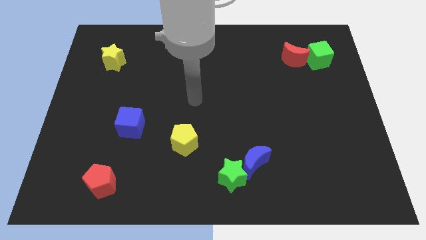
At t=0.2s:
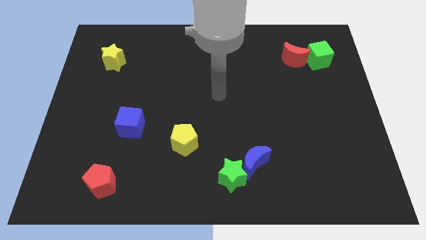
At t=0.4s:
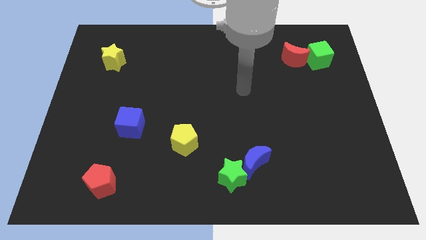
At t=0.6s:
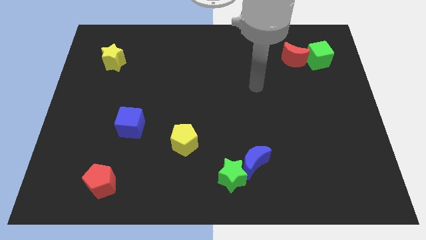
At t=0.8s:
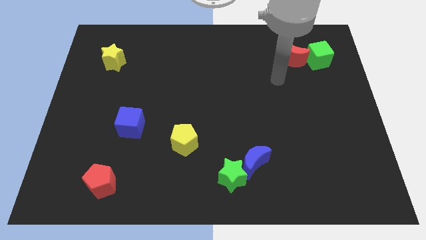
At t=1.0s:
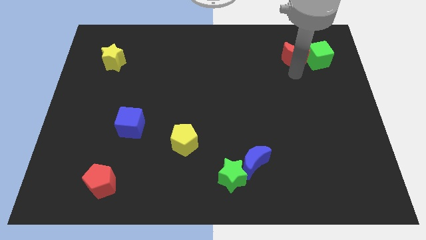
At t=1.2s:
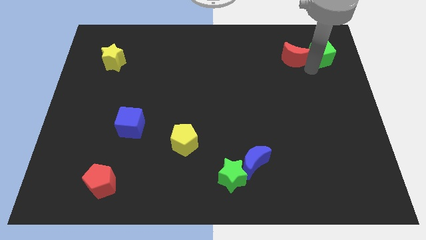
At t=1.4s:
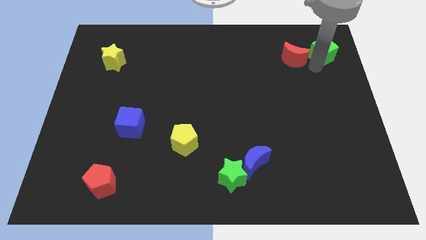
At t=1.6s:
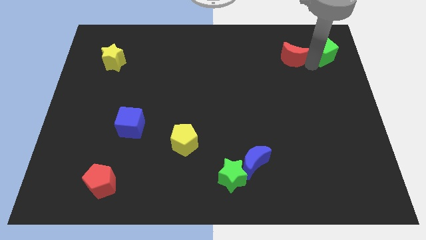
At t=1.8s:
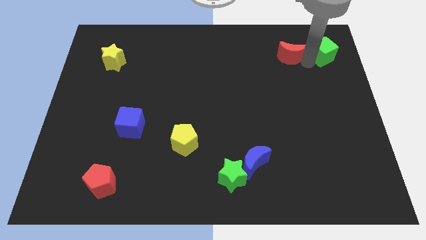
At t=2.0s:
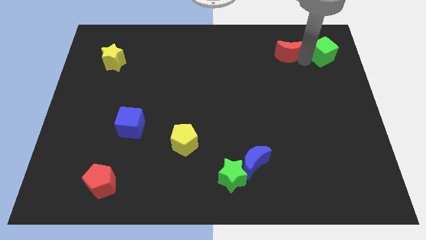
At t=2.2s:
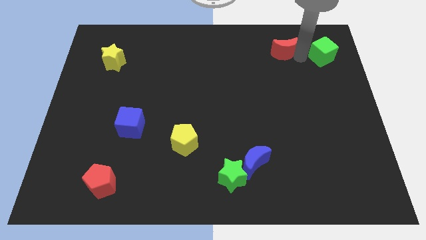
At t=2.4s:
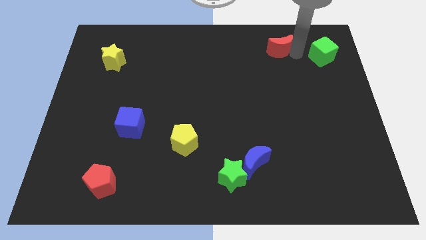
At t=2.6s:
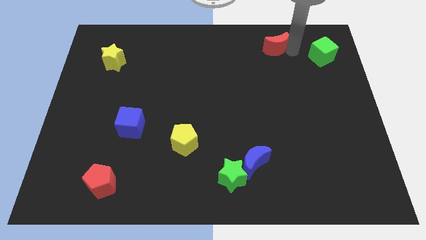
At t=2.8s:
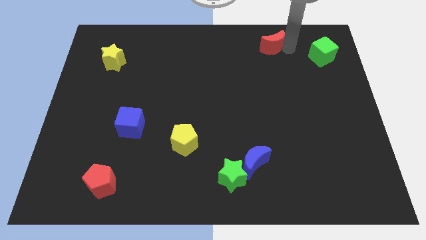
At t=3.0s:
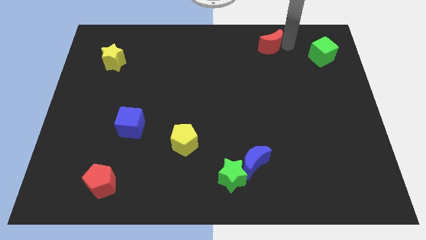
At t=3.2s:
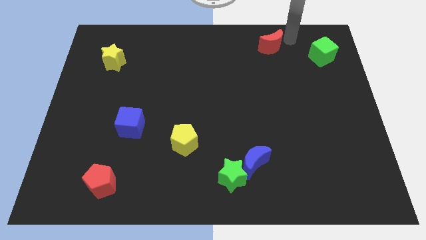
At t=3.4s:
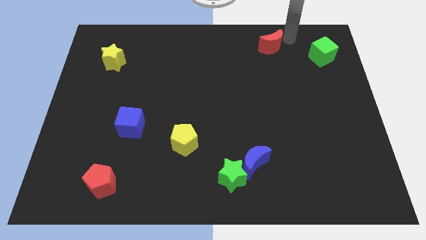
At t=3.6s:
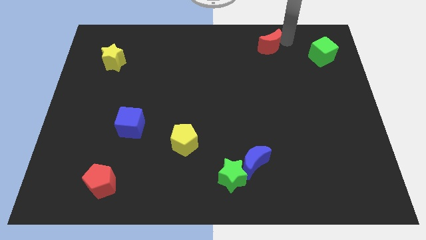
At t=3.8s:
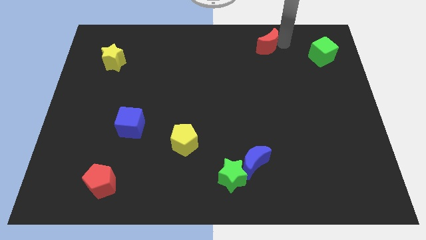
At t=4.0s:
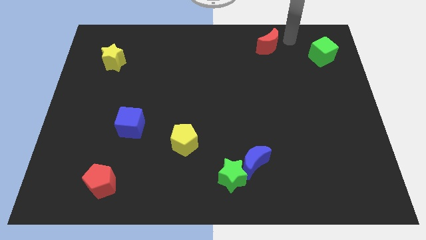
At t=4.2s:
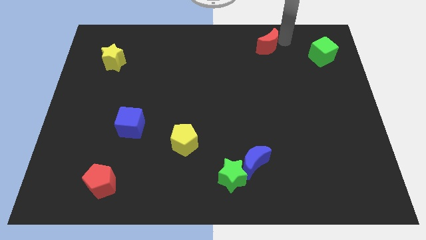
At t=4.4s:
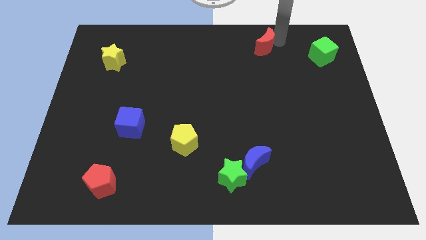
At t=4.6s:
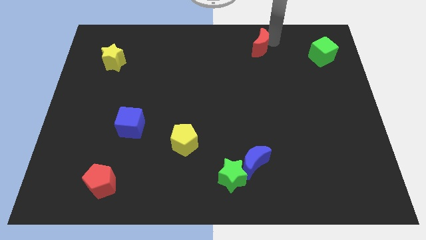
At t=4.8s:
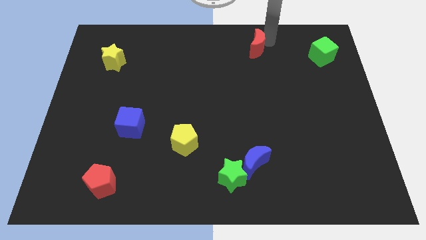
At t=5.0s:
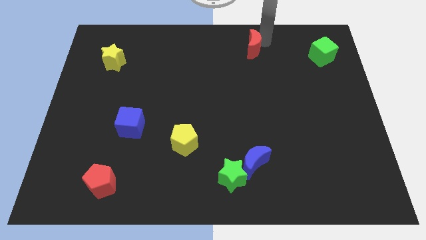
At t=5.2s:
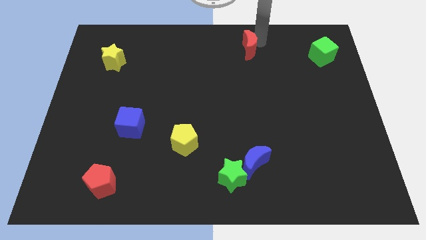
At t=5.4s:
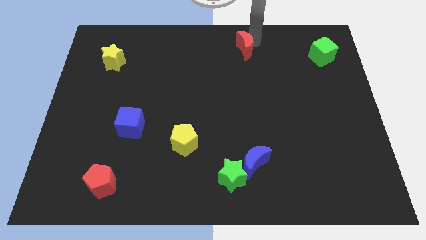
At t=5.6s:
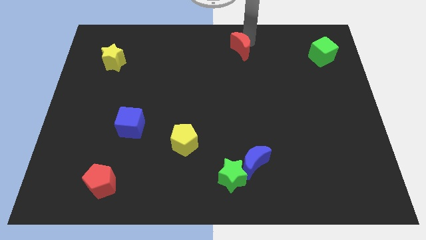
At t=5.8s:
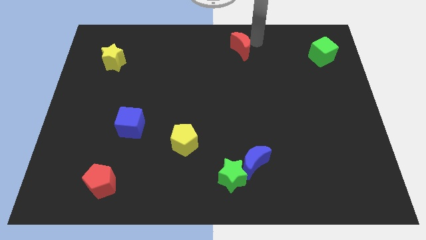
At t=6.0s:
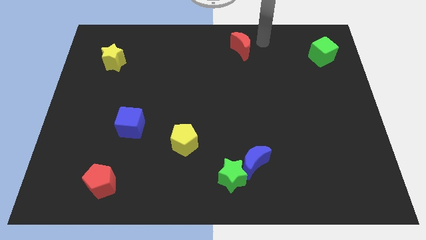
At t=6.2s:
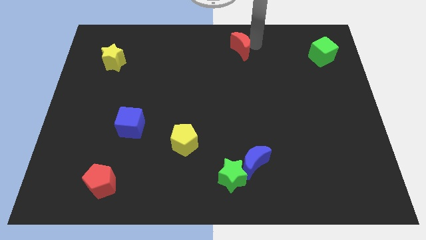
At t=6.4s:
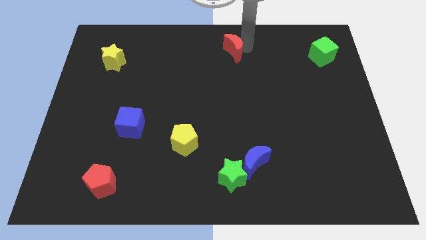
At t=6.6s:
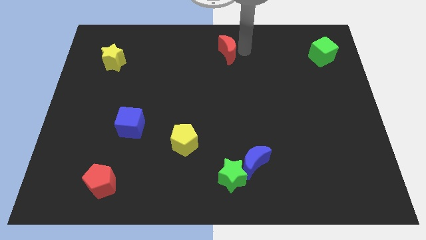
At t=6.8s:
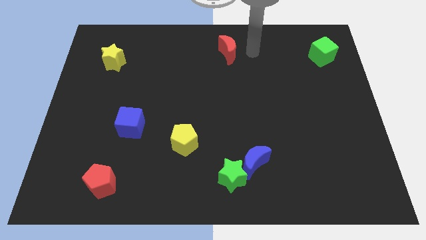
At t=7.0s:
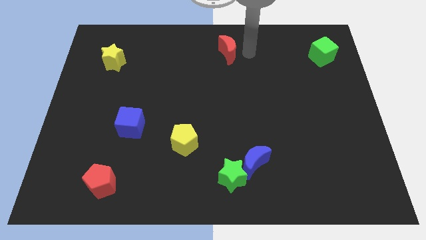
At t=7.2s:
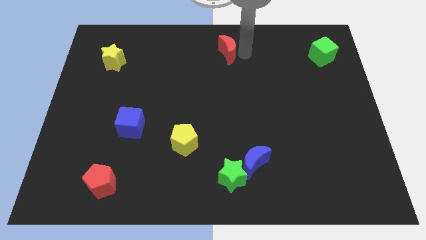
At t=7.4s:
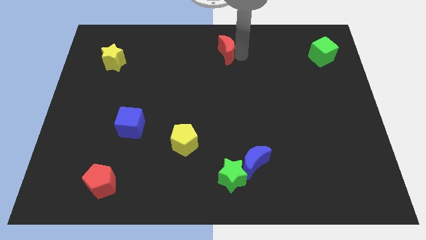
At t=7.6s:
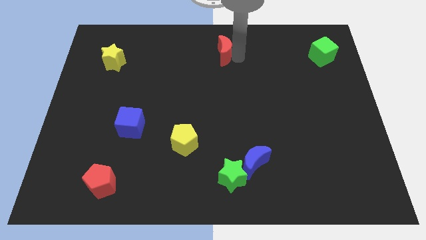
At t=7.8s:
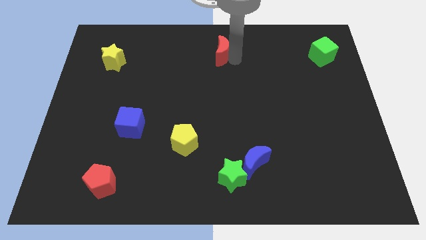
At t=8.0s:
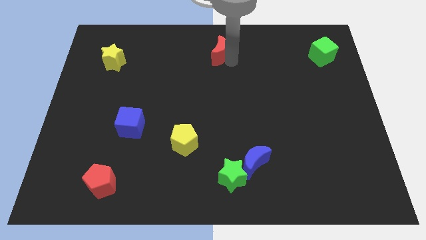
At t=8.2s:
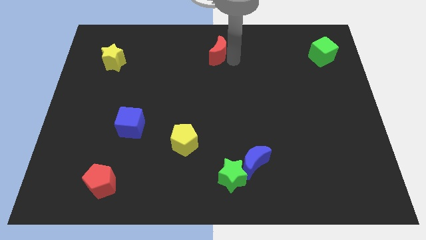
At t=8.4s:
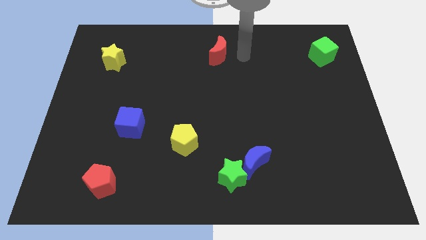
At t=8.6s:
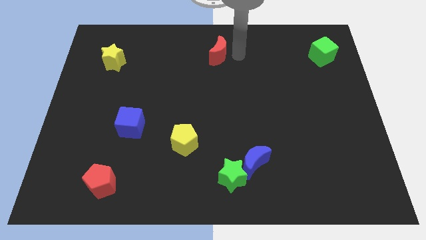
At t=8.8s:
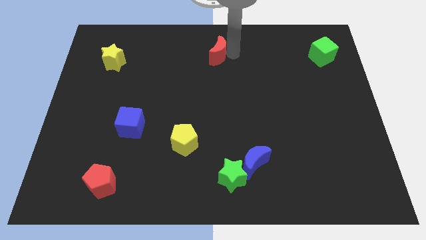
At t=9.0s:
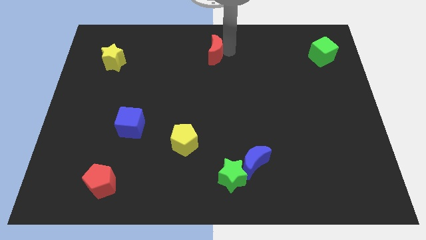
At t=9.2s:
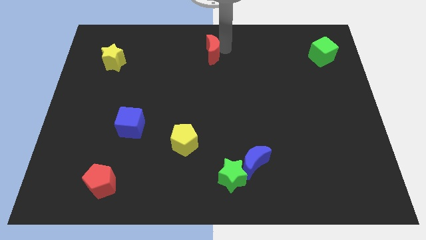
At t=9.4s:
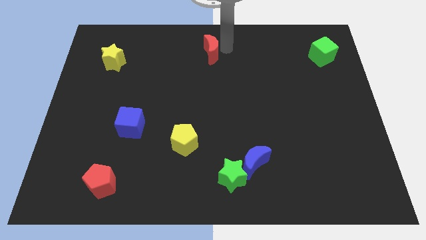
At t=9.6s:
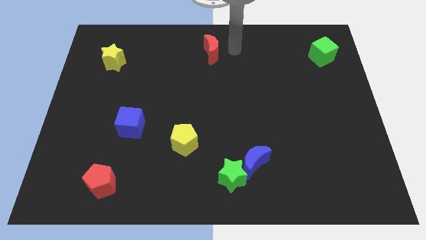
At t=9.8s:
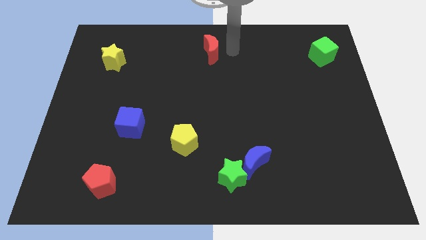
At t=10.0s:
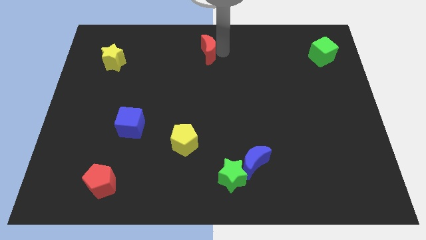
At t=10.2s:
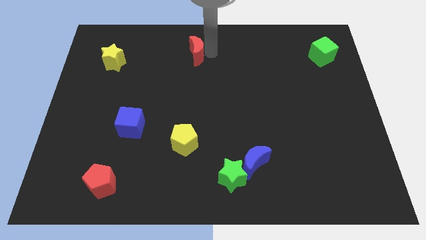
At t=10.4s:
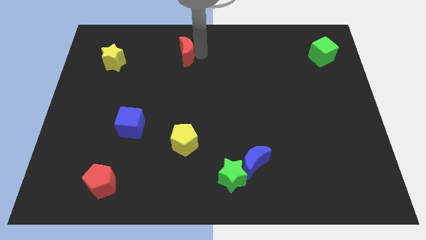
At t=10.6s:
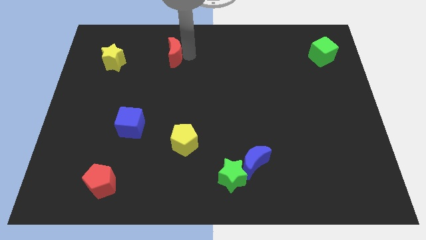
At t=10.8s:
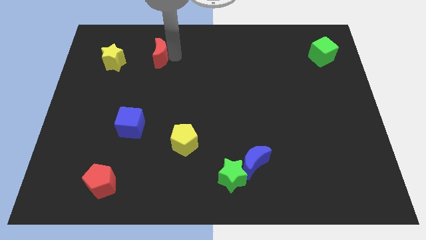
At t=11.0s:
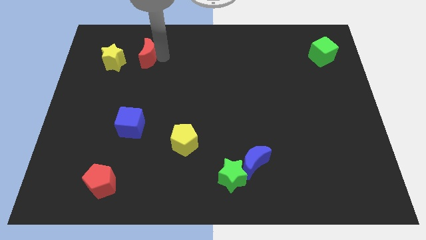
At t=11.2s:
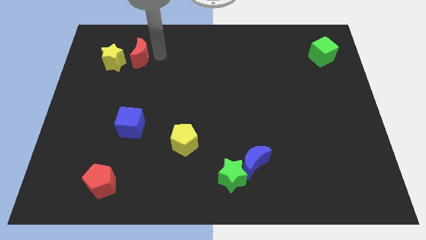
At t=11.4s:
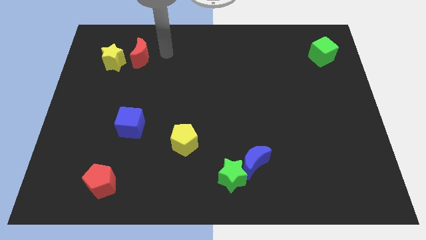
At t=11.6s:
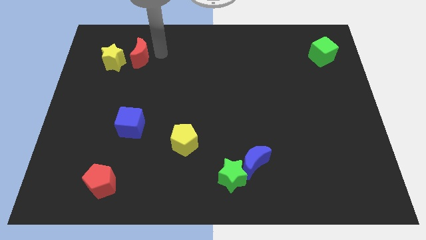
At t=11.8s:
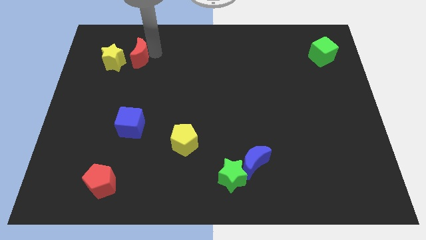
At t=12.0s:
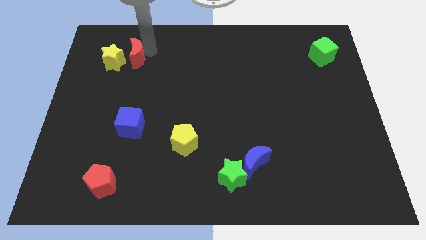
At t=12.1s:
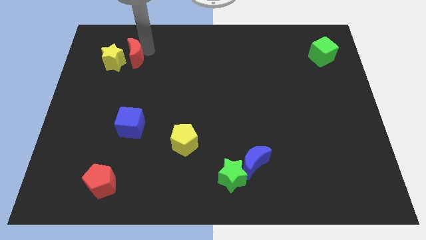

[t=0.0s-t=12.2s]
move the red moon close to the yellow star

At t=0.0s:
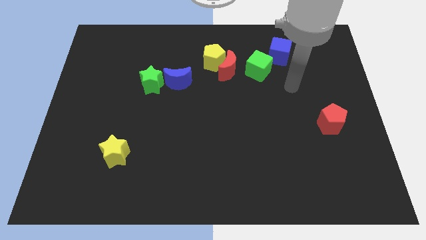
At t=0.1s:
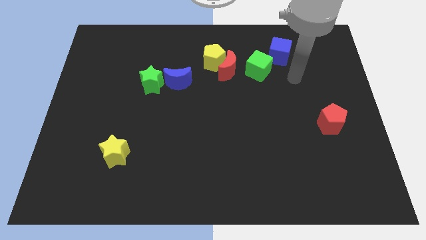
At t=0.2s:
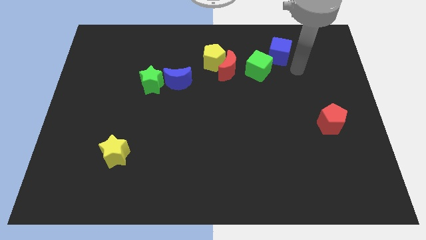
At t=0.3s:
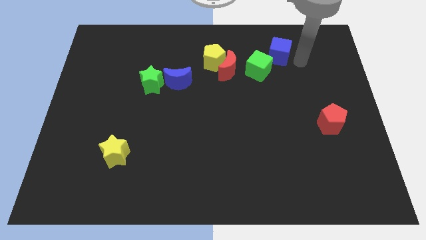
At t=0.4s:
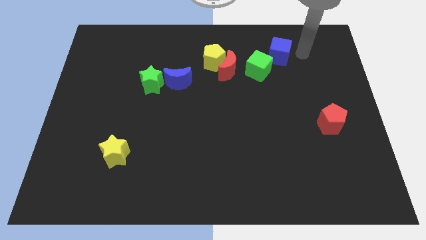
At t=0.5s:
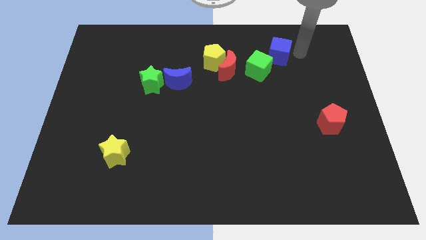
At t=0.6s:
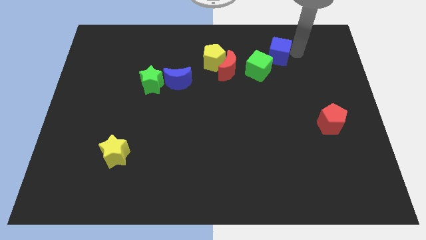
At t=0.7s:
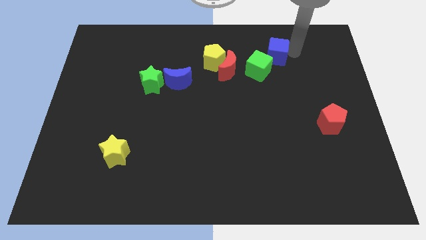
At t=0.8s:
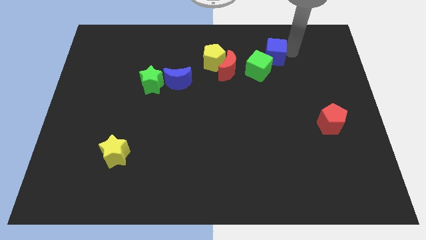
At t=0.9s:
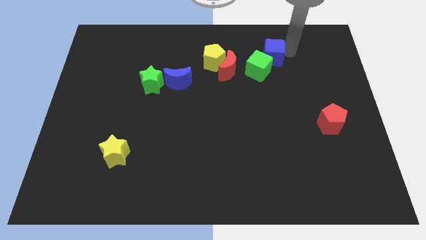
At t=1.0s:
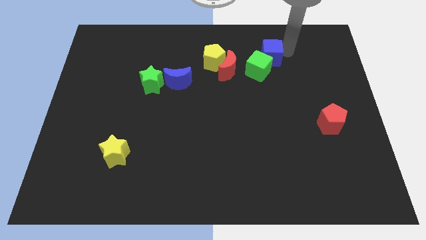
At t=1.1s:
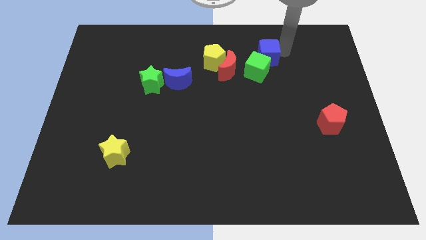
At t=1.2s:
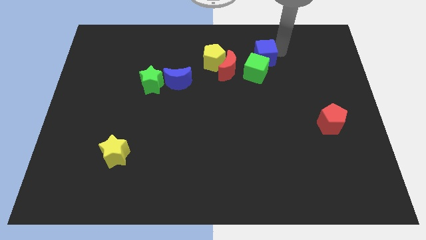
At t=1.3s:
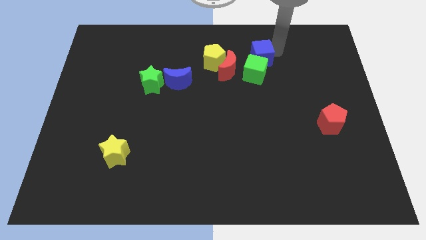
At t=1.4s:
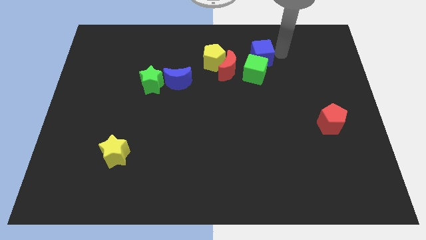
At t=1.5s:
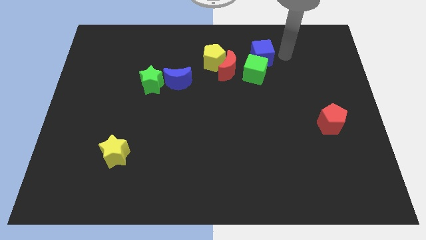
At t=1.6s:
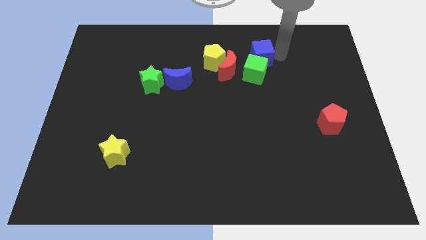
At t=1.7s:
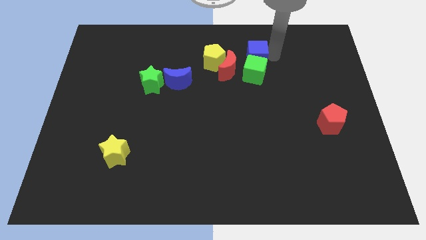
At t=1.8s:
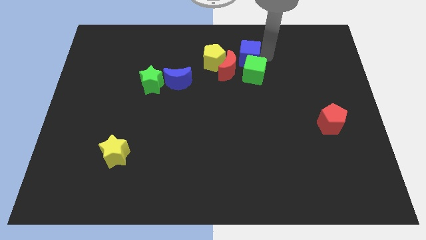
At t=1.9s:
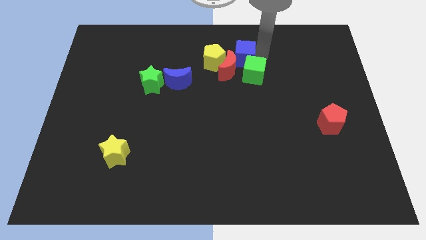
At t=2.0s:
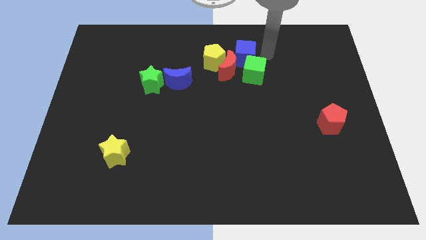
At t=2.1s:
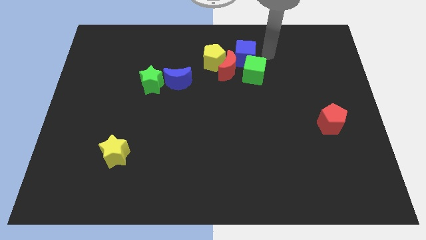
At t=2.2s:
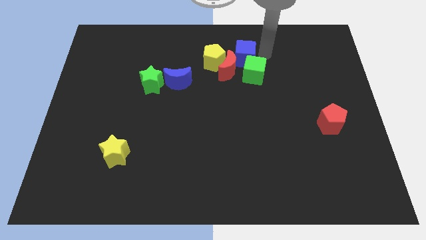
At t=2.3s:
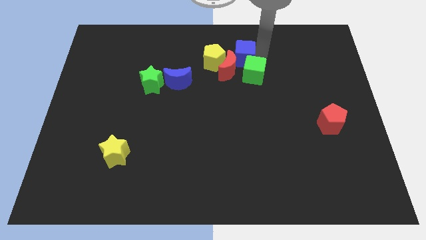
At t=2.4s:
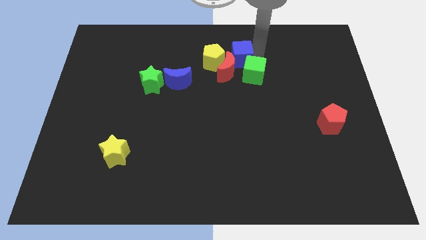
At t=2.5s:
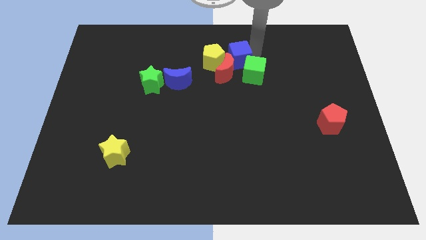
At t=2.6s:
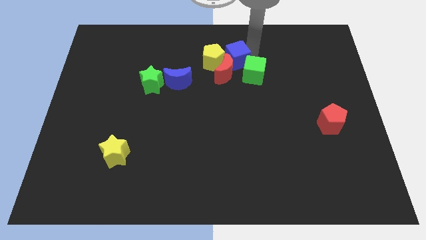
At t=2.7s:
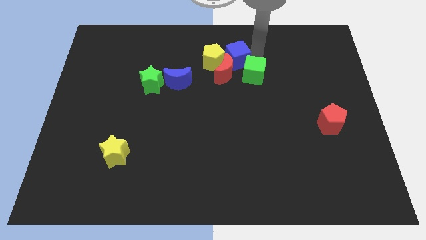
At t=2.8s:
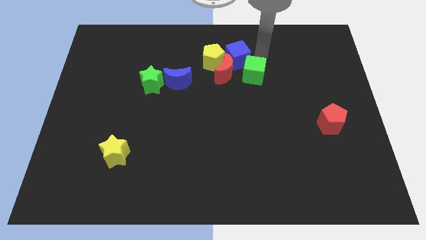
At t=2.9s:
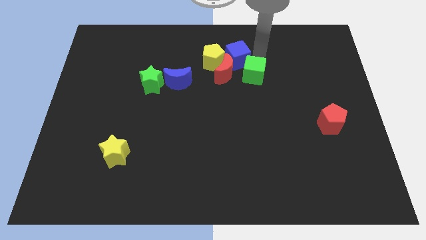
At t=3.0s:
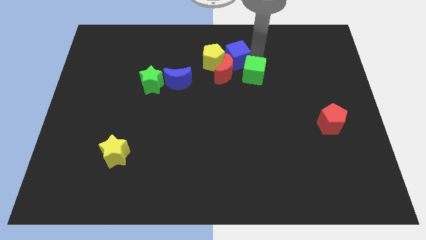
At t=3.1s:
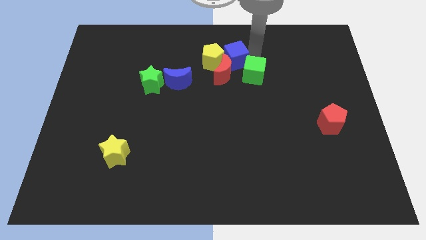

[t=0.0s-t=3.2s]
put the blue cube close to the yellow pentagon
